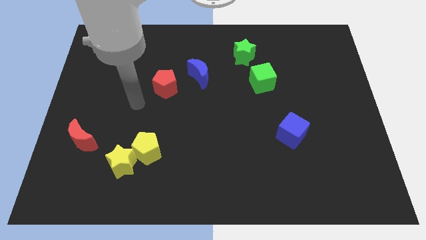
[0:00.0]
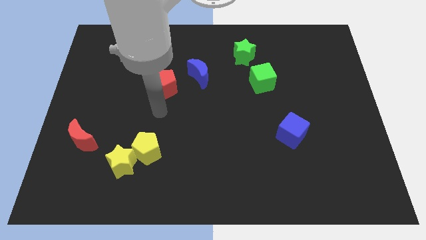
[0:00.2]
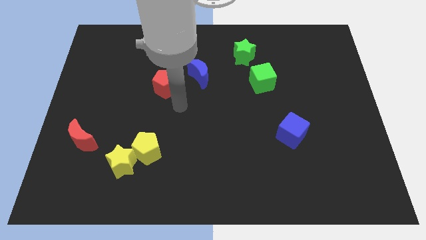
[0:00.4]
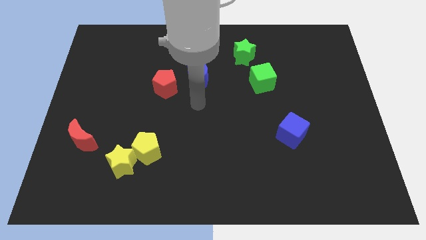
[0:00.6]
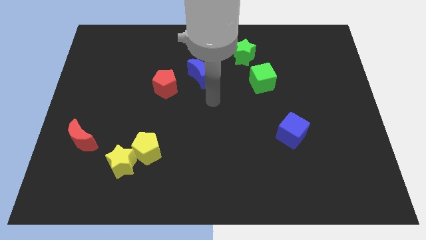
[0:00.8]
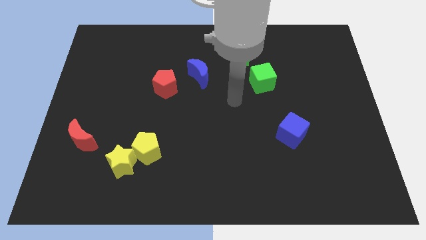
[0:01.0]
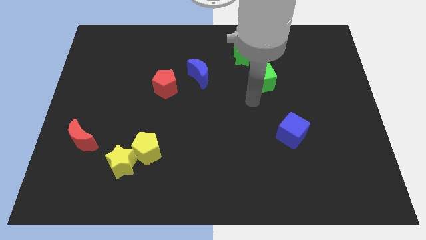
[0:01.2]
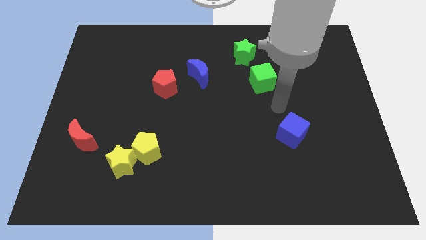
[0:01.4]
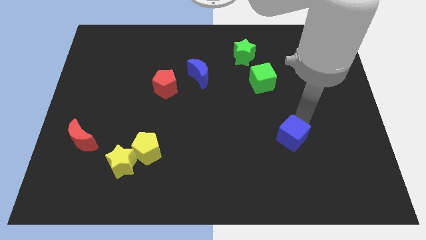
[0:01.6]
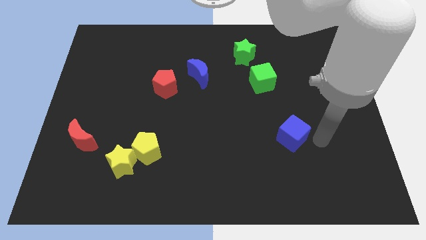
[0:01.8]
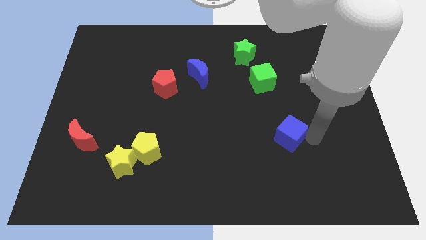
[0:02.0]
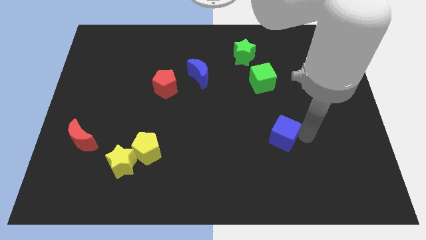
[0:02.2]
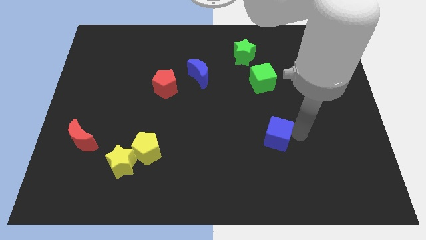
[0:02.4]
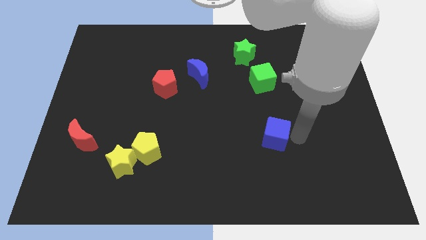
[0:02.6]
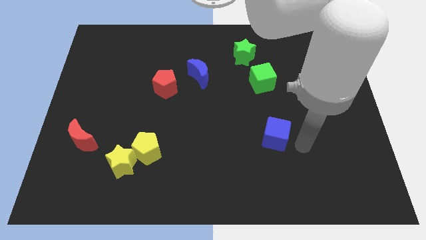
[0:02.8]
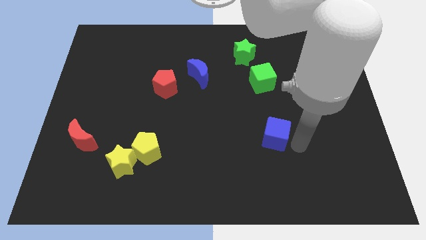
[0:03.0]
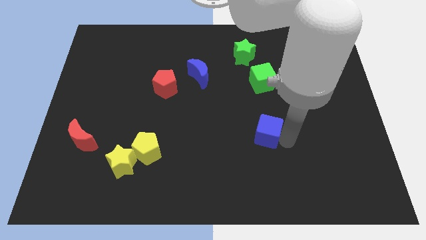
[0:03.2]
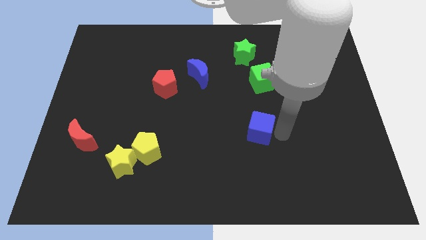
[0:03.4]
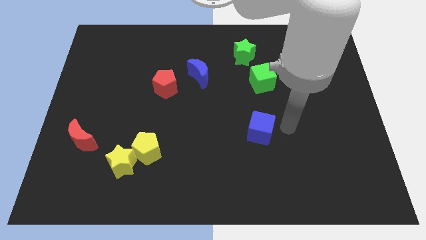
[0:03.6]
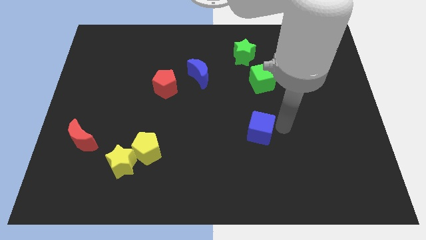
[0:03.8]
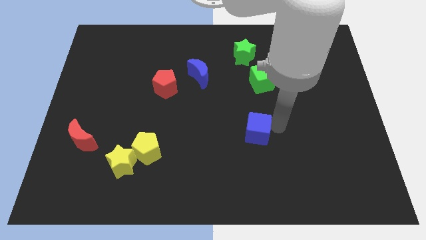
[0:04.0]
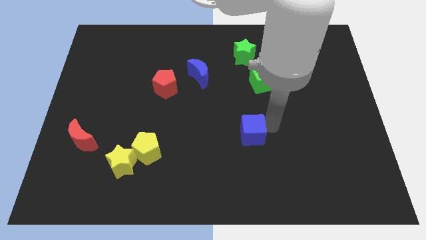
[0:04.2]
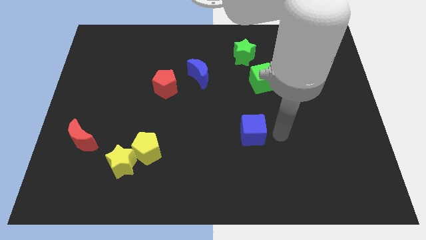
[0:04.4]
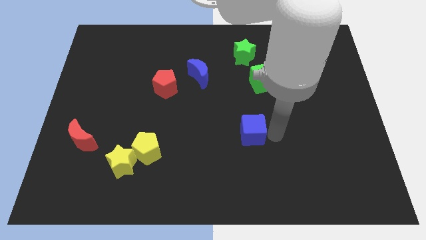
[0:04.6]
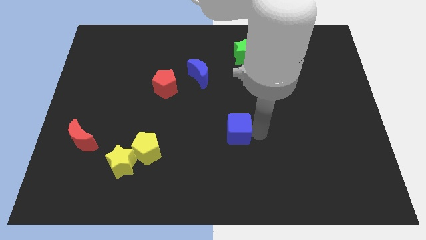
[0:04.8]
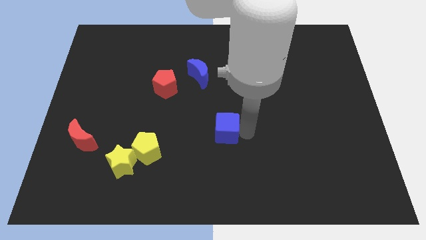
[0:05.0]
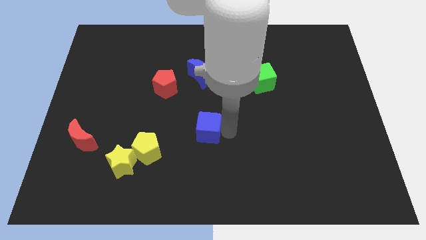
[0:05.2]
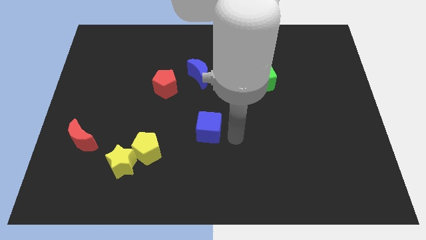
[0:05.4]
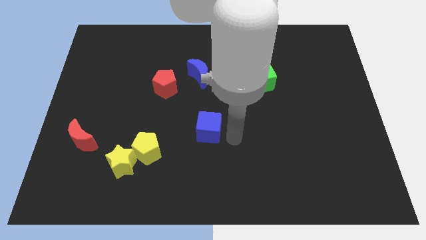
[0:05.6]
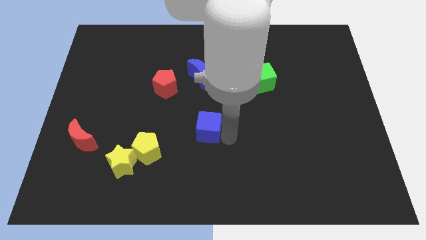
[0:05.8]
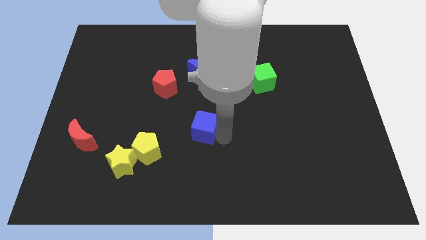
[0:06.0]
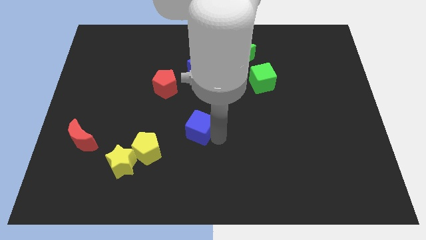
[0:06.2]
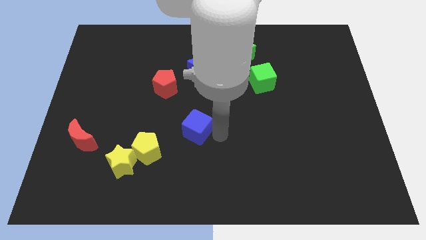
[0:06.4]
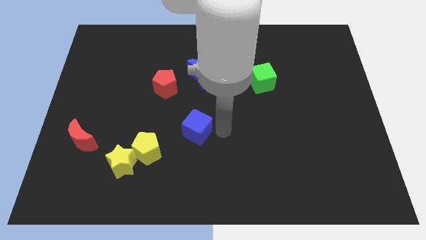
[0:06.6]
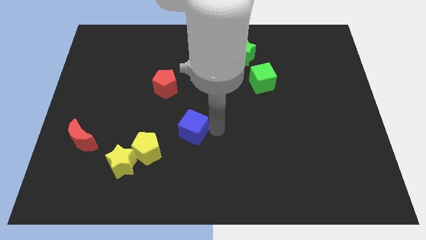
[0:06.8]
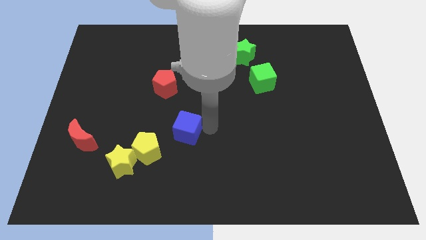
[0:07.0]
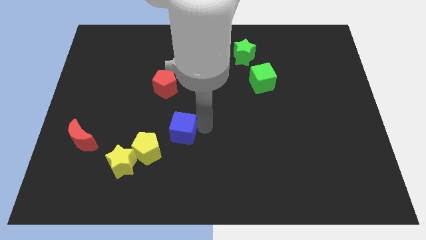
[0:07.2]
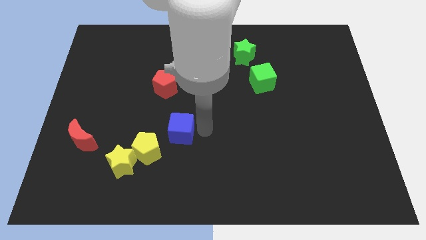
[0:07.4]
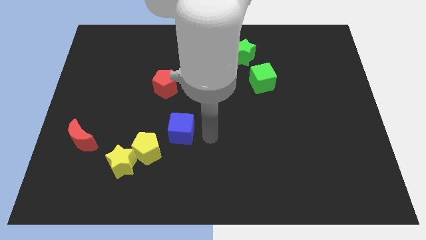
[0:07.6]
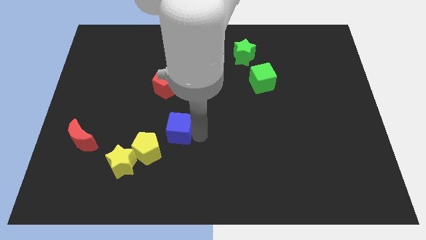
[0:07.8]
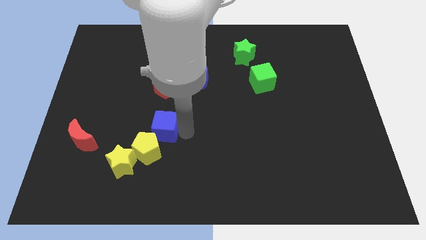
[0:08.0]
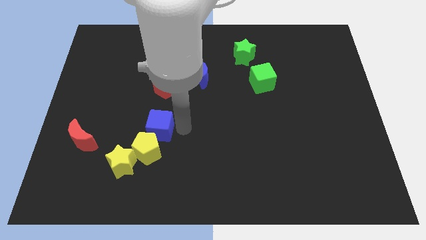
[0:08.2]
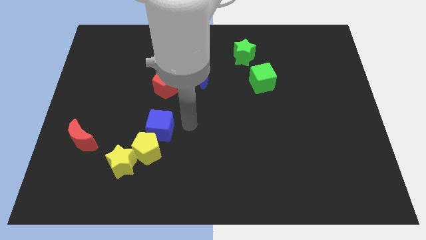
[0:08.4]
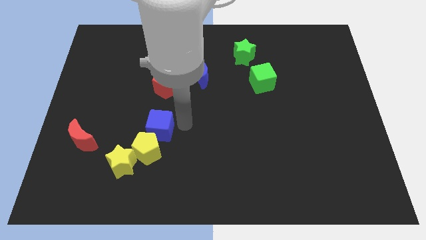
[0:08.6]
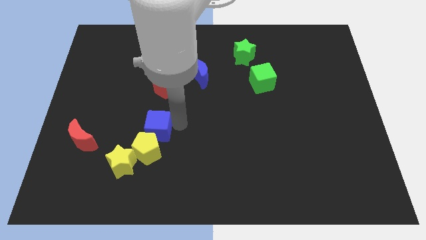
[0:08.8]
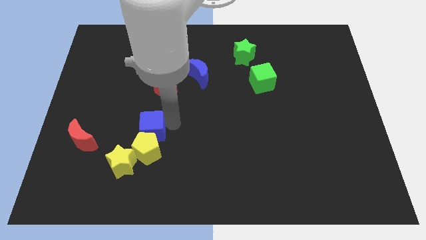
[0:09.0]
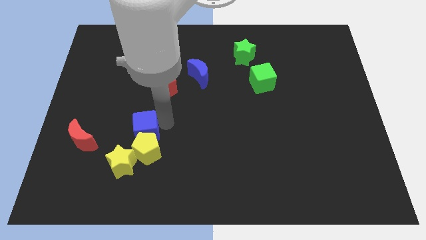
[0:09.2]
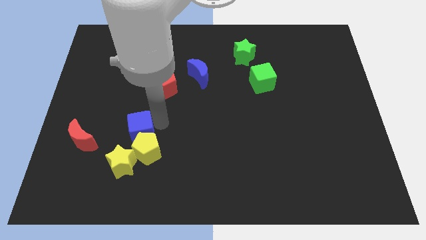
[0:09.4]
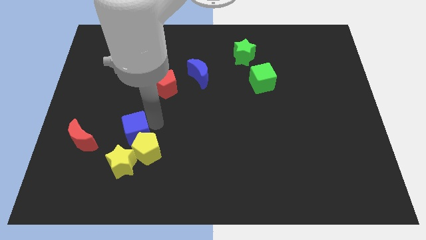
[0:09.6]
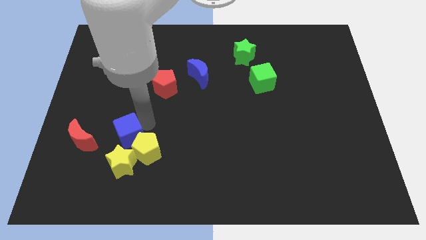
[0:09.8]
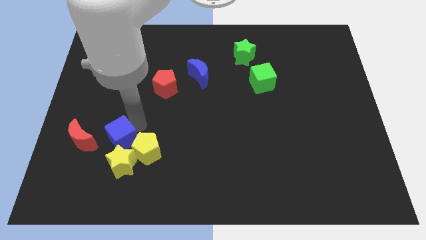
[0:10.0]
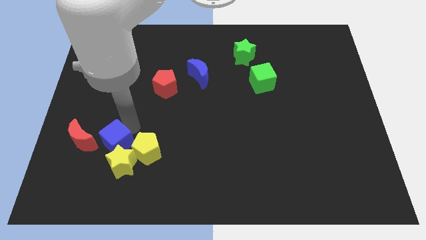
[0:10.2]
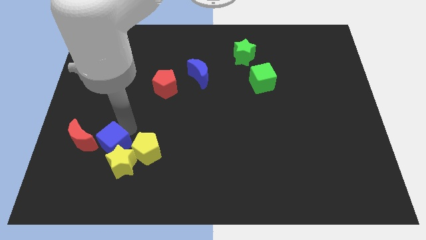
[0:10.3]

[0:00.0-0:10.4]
push the blue cube diagonally down and to the right of the red moon

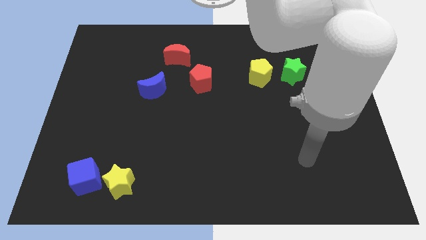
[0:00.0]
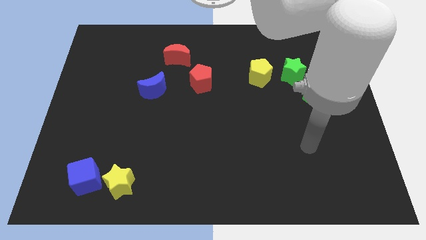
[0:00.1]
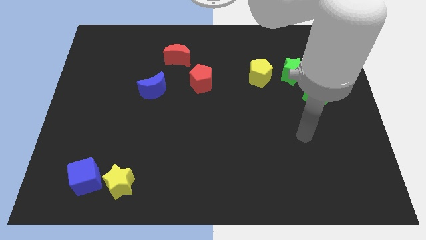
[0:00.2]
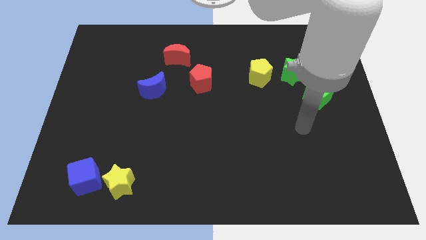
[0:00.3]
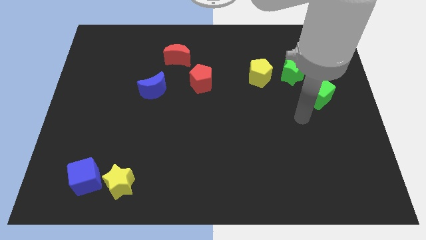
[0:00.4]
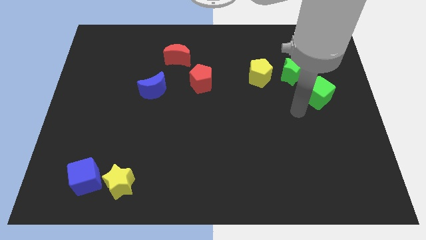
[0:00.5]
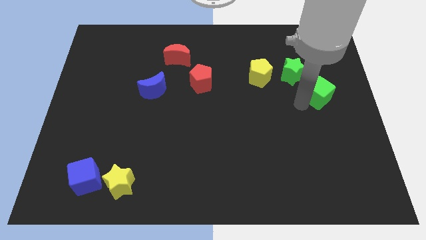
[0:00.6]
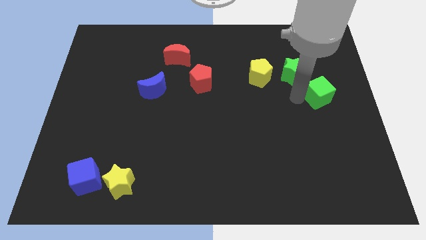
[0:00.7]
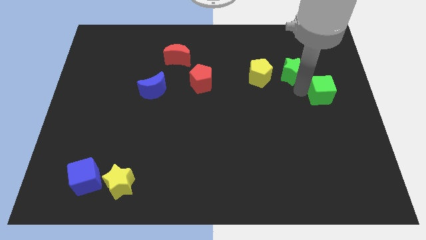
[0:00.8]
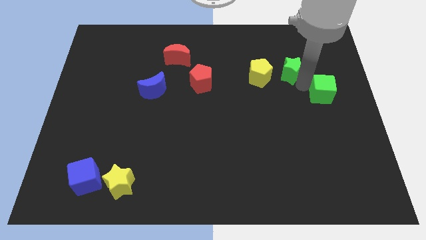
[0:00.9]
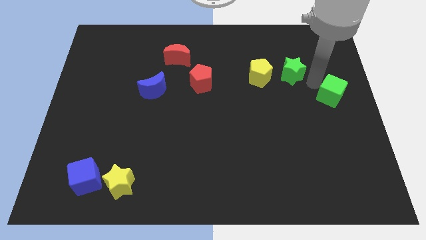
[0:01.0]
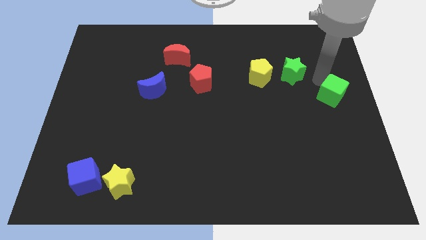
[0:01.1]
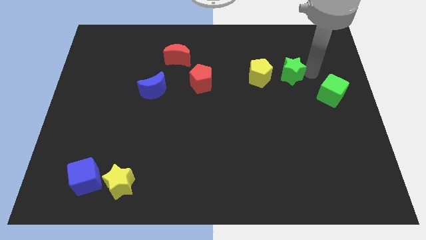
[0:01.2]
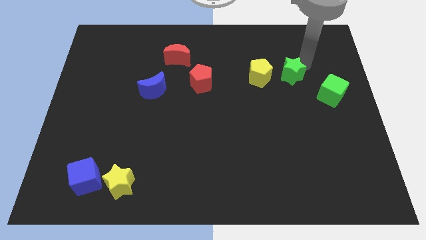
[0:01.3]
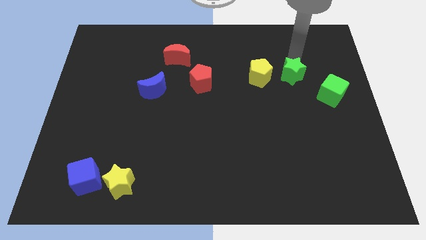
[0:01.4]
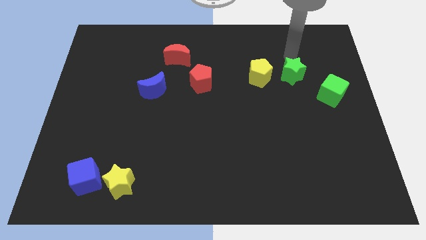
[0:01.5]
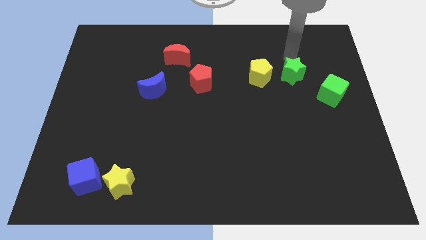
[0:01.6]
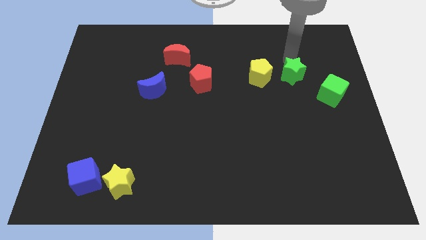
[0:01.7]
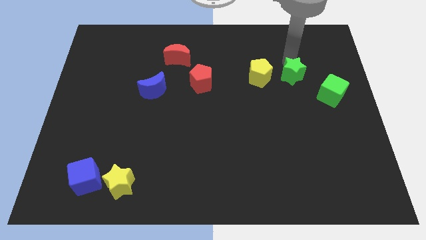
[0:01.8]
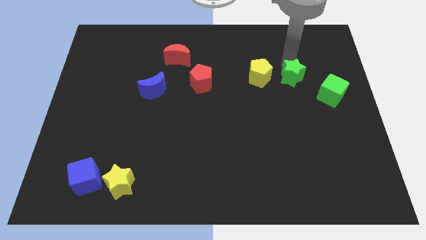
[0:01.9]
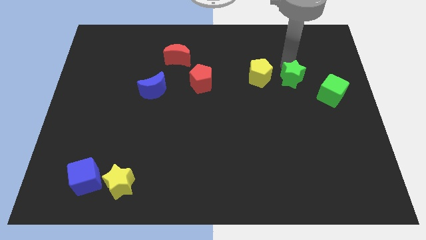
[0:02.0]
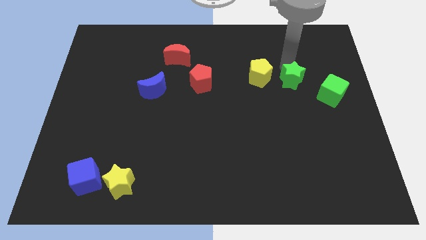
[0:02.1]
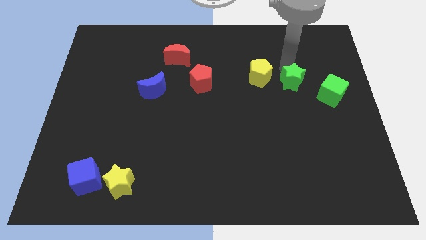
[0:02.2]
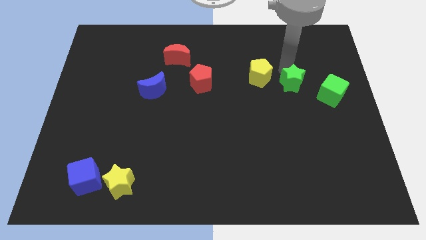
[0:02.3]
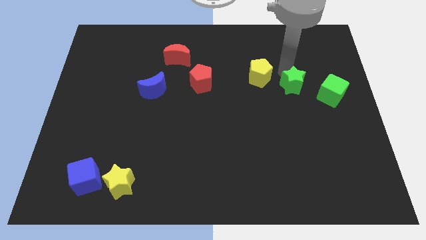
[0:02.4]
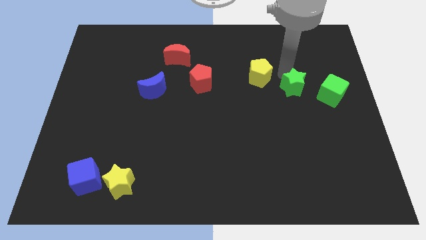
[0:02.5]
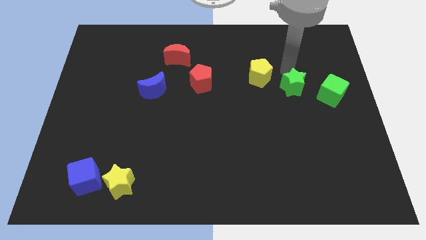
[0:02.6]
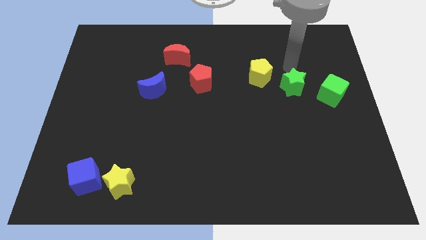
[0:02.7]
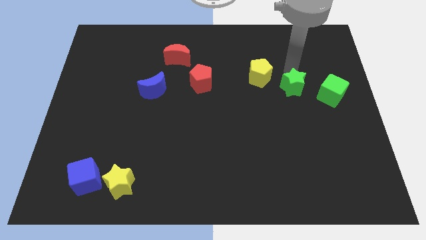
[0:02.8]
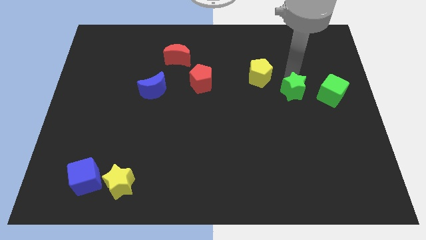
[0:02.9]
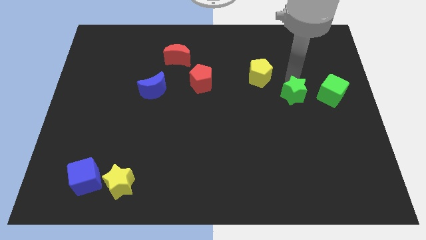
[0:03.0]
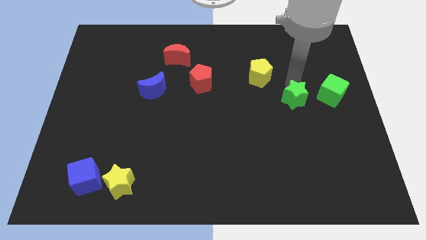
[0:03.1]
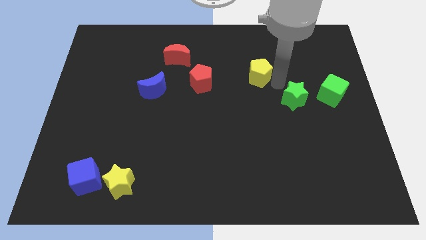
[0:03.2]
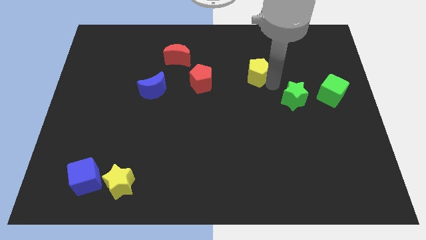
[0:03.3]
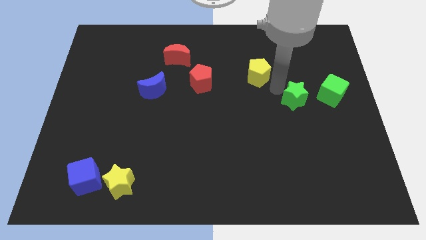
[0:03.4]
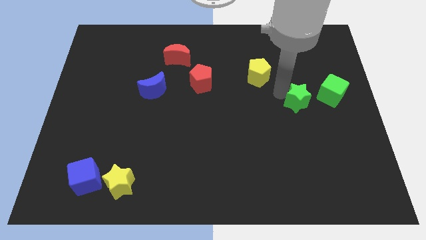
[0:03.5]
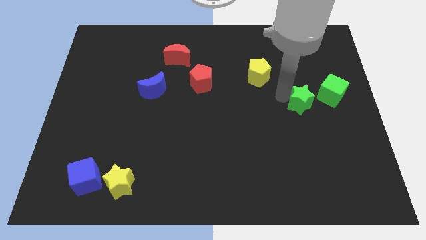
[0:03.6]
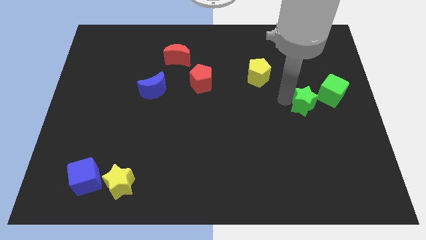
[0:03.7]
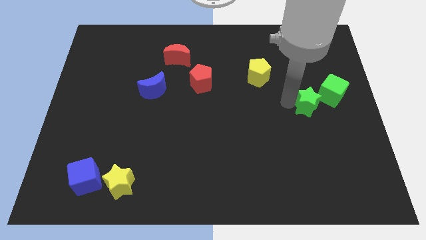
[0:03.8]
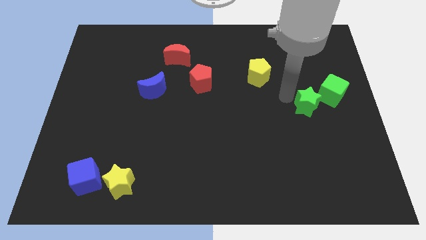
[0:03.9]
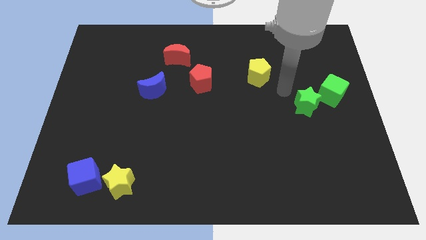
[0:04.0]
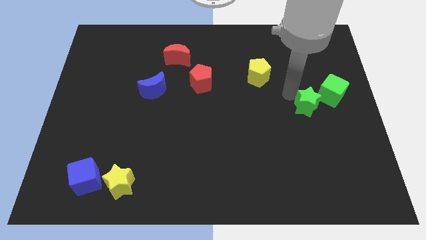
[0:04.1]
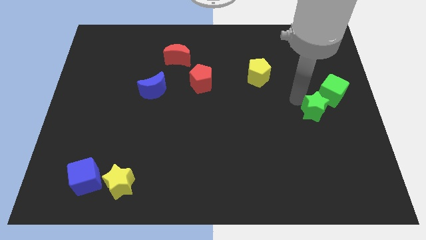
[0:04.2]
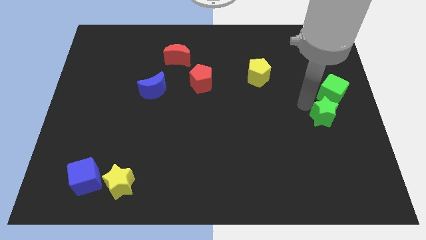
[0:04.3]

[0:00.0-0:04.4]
move the green star to the bottom side of the green cube
